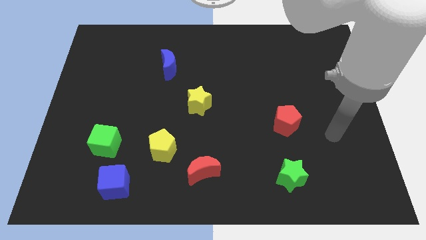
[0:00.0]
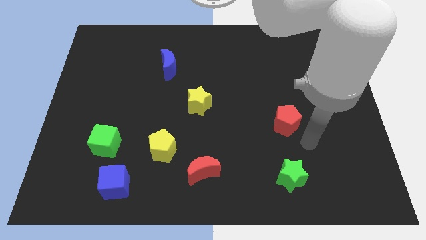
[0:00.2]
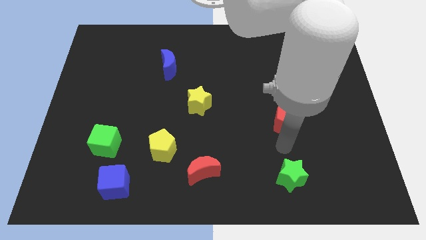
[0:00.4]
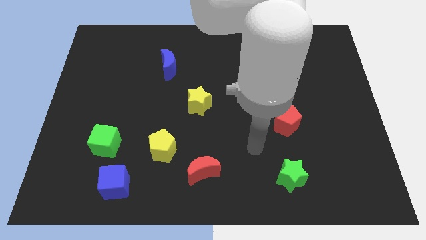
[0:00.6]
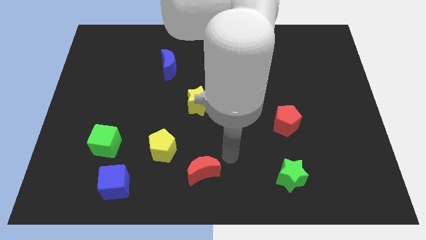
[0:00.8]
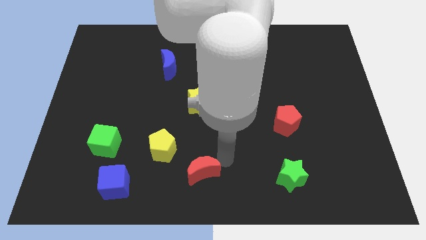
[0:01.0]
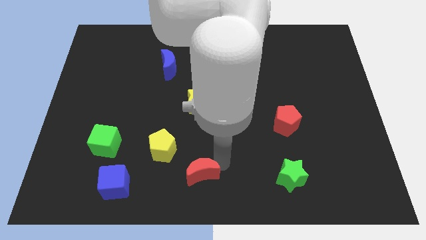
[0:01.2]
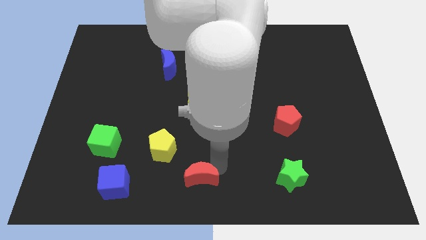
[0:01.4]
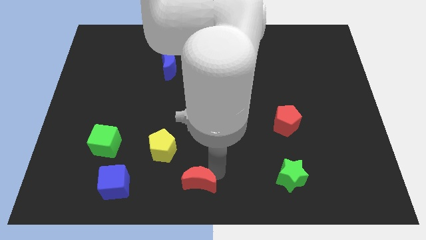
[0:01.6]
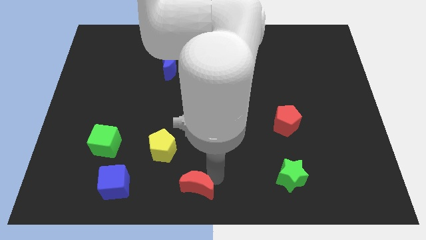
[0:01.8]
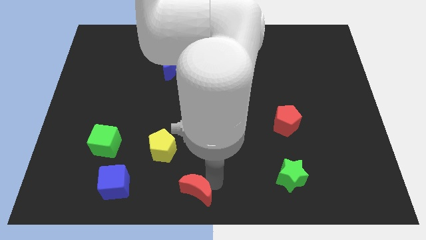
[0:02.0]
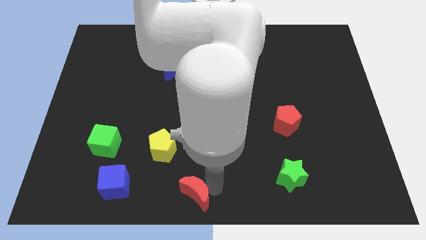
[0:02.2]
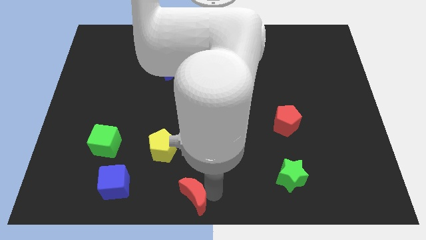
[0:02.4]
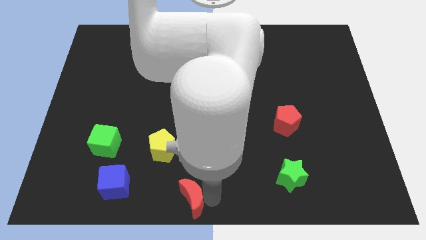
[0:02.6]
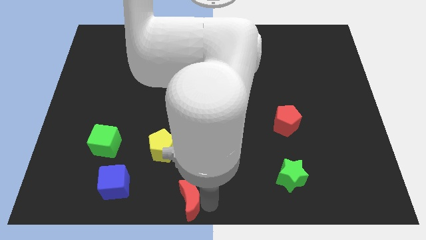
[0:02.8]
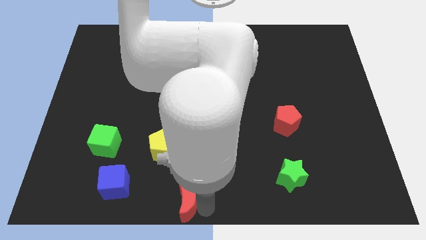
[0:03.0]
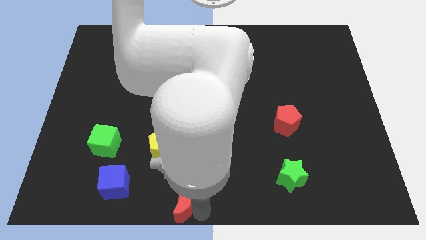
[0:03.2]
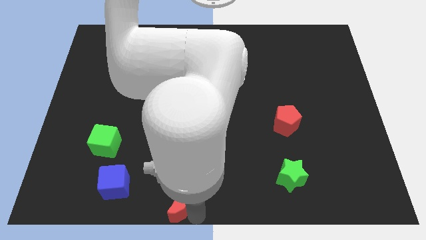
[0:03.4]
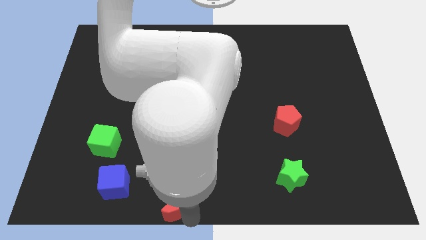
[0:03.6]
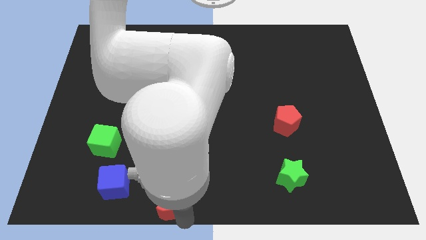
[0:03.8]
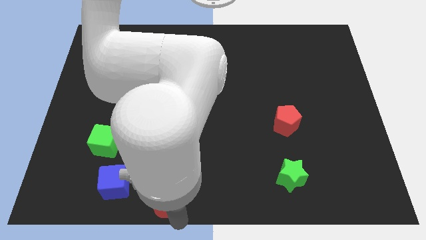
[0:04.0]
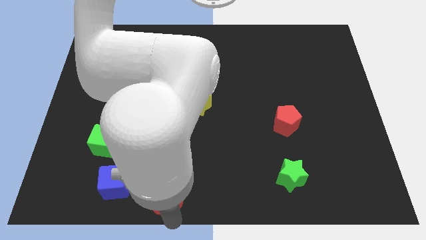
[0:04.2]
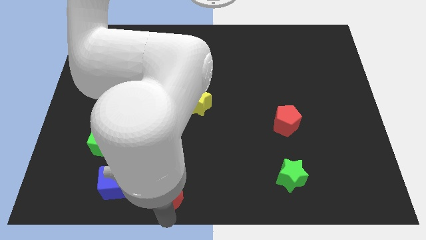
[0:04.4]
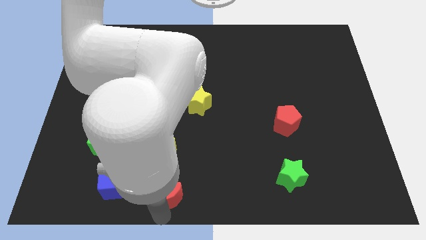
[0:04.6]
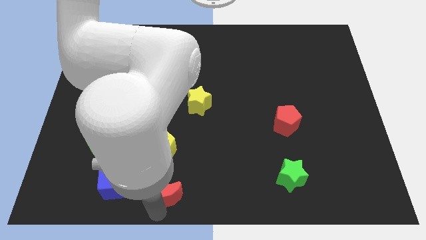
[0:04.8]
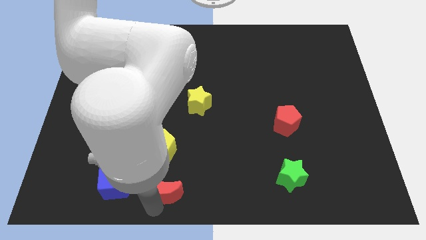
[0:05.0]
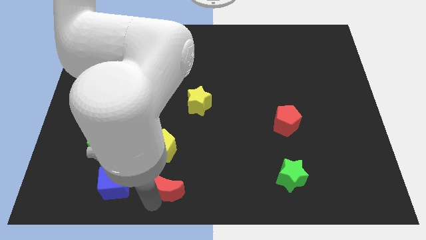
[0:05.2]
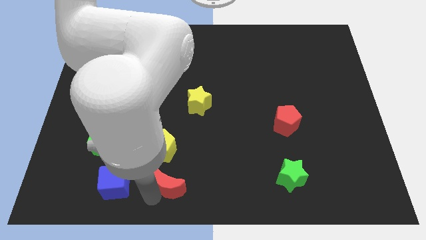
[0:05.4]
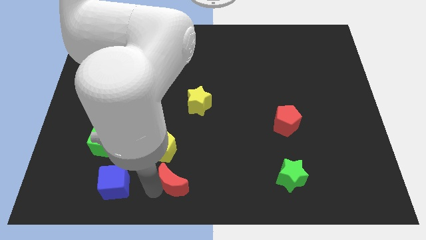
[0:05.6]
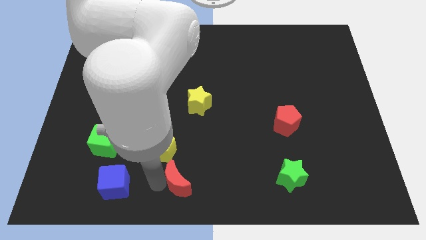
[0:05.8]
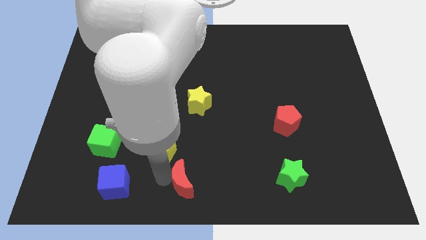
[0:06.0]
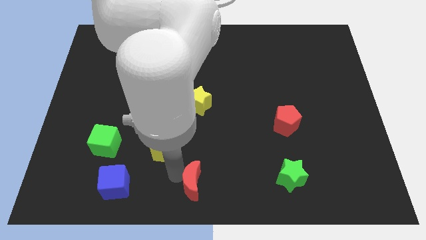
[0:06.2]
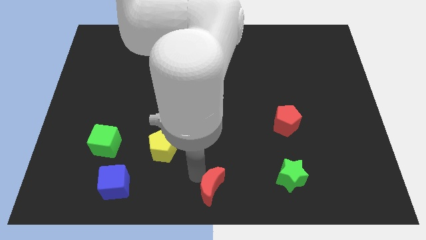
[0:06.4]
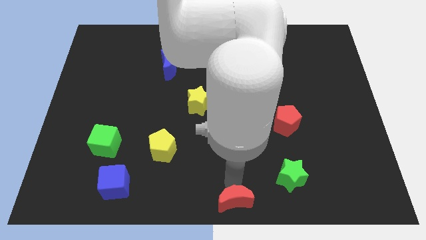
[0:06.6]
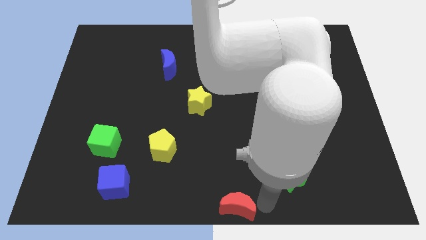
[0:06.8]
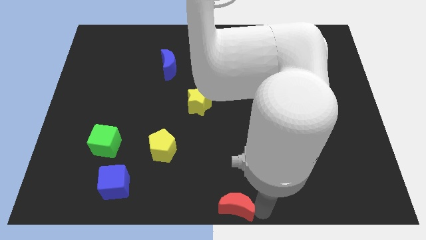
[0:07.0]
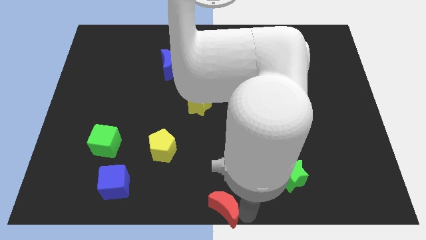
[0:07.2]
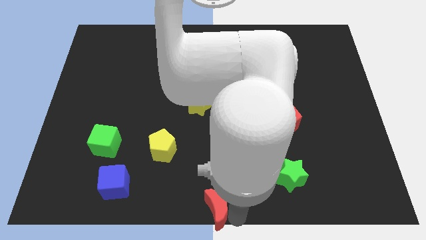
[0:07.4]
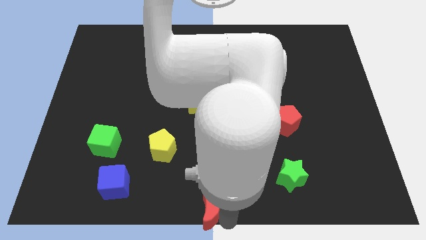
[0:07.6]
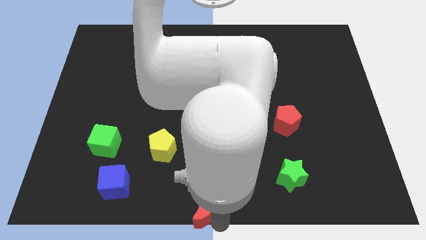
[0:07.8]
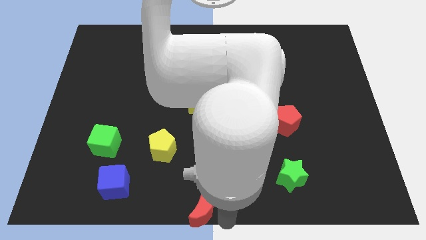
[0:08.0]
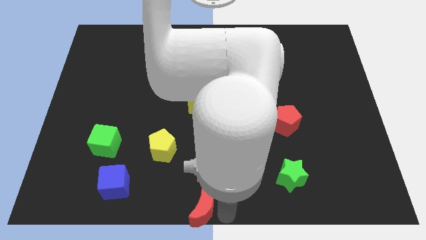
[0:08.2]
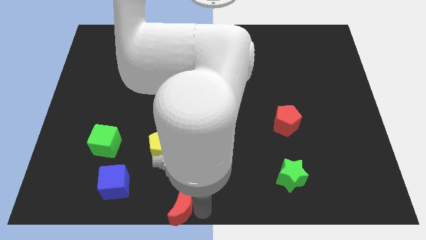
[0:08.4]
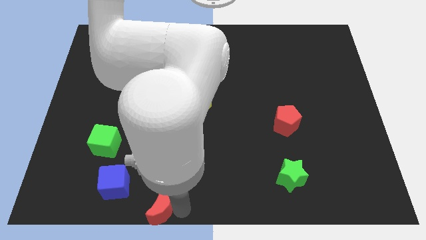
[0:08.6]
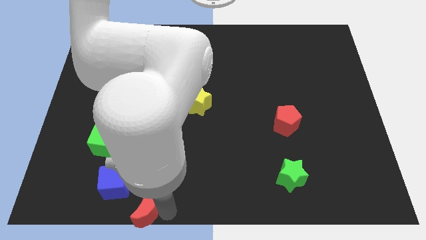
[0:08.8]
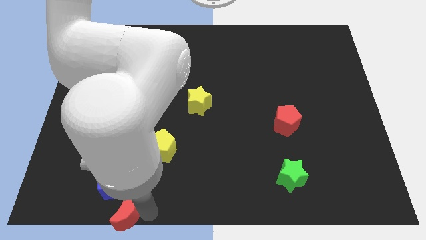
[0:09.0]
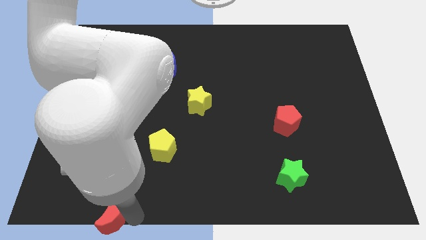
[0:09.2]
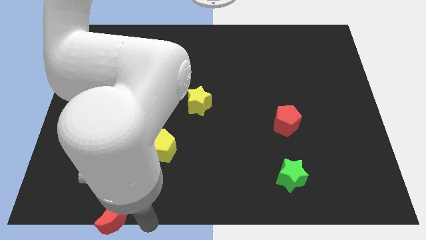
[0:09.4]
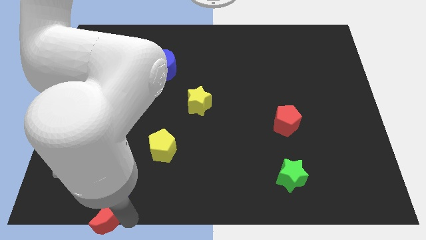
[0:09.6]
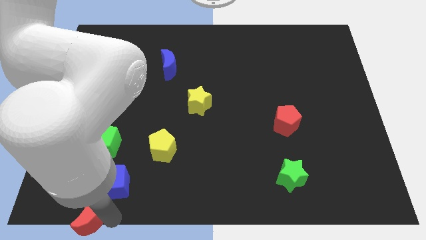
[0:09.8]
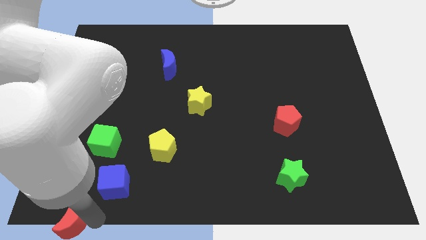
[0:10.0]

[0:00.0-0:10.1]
push the red moon to the bottom left

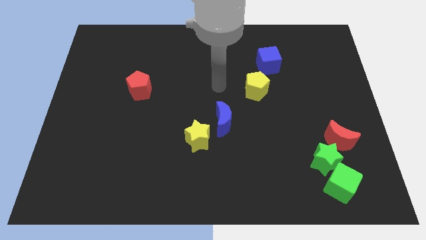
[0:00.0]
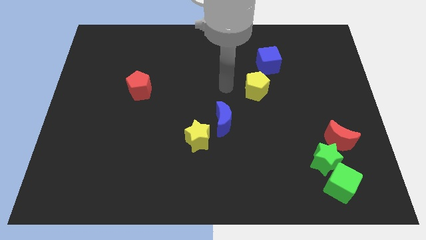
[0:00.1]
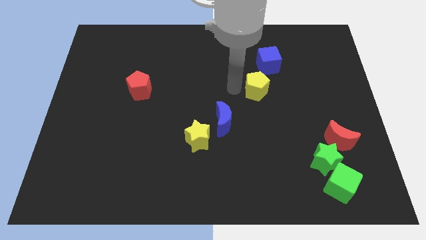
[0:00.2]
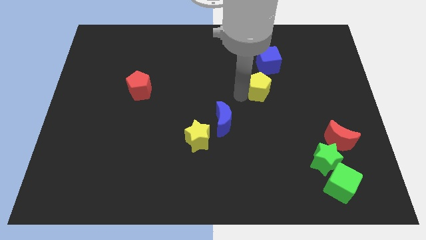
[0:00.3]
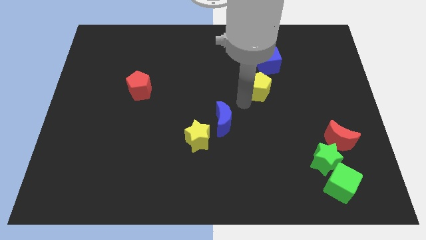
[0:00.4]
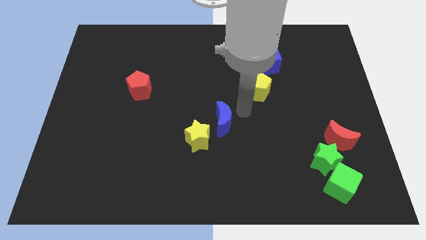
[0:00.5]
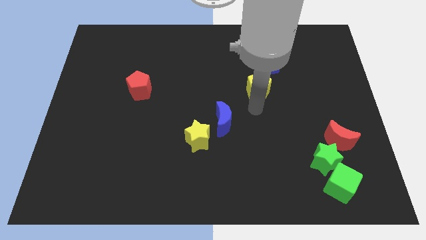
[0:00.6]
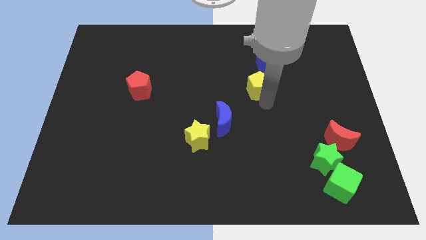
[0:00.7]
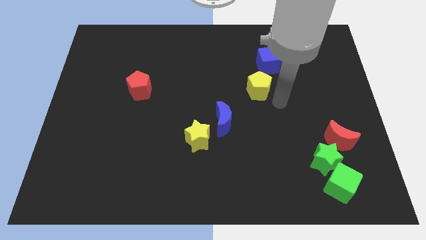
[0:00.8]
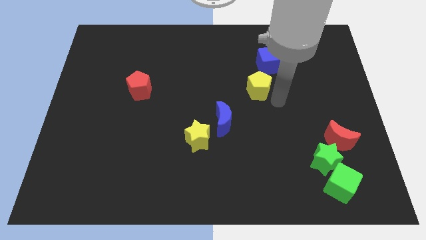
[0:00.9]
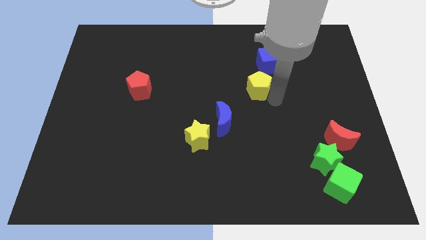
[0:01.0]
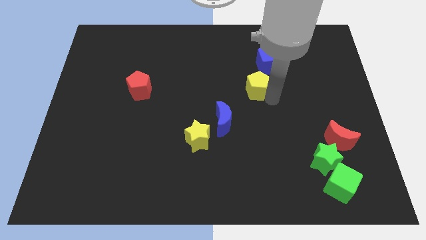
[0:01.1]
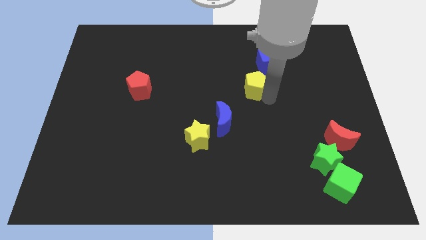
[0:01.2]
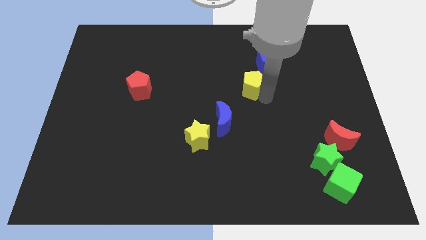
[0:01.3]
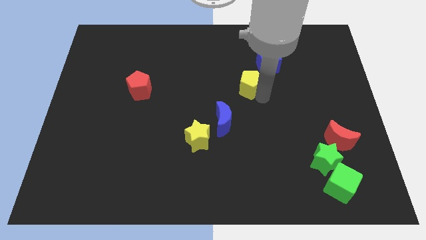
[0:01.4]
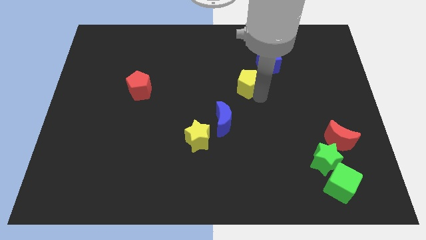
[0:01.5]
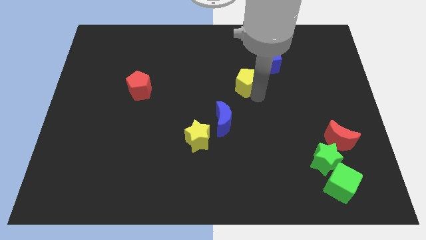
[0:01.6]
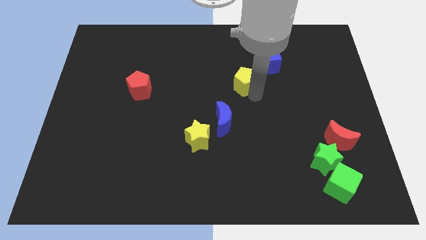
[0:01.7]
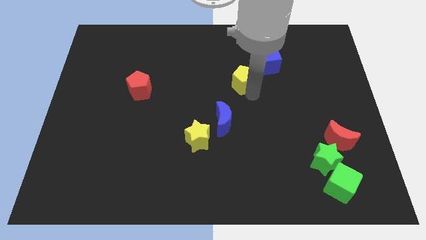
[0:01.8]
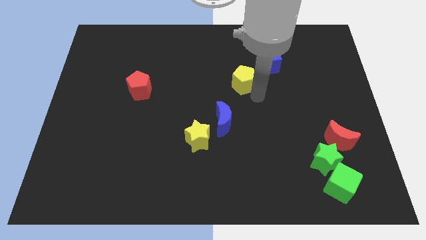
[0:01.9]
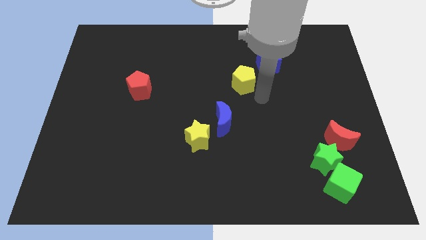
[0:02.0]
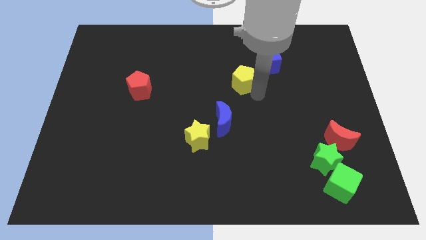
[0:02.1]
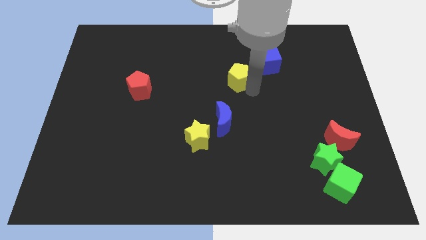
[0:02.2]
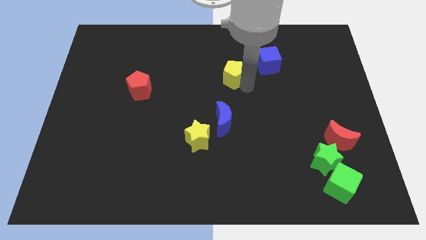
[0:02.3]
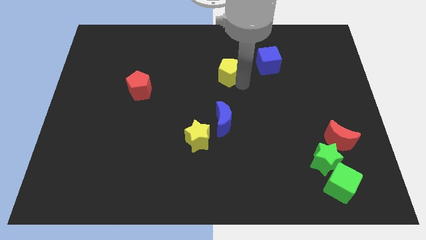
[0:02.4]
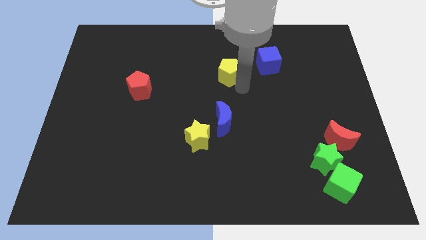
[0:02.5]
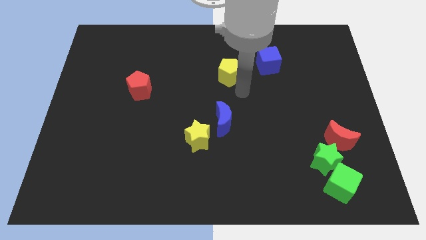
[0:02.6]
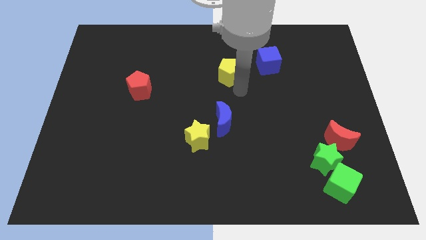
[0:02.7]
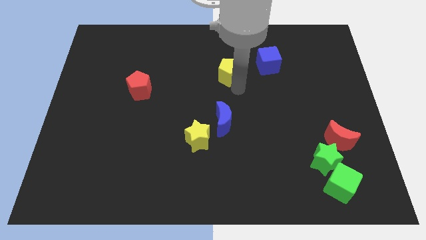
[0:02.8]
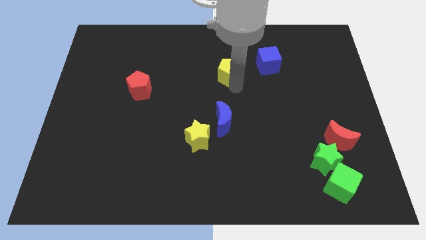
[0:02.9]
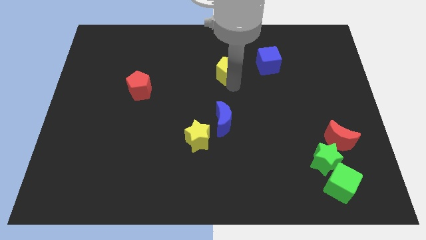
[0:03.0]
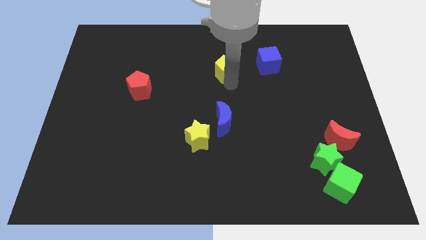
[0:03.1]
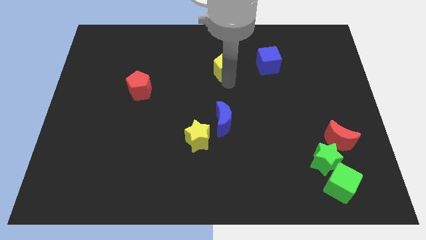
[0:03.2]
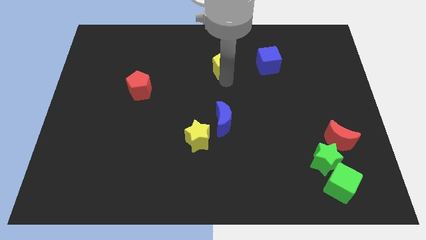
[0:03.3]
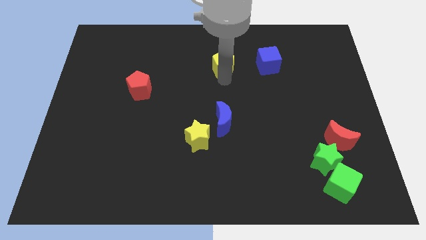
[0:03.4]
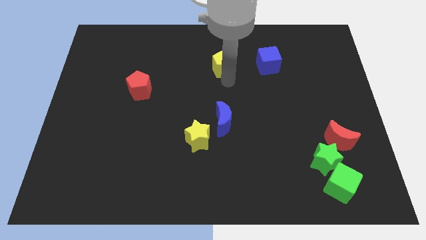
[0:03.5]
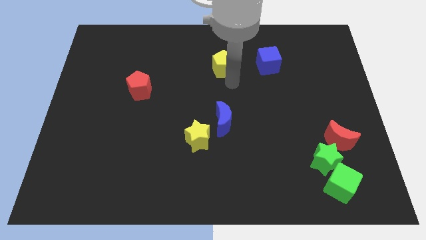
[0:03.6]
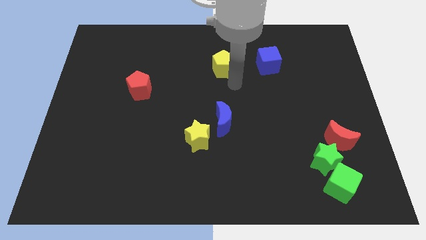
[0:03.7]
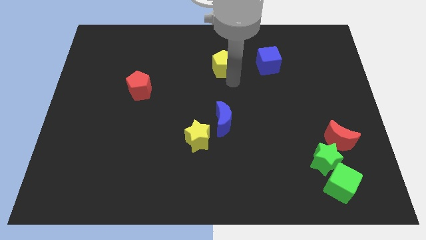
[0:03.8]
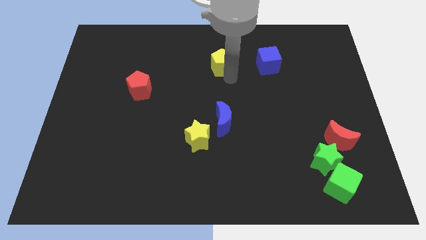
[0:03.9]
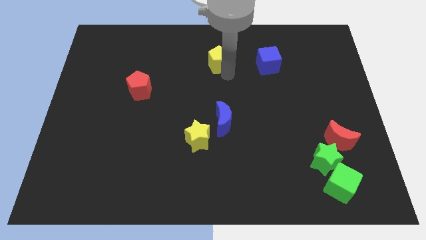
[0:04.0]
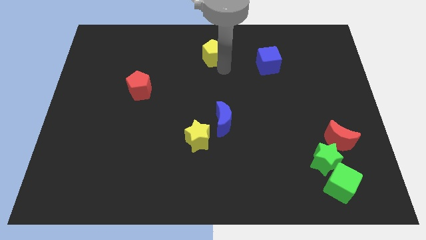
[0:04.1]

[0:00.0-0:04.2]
move the yellow pentagon to the top
